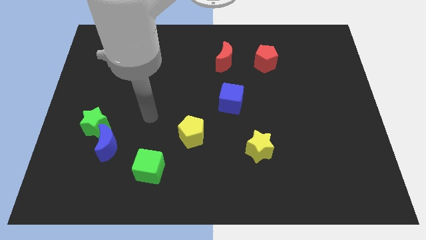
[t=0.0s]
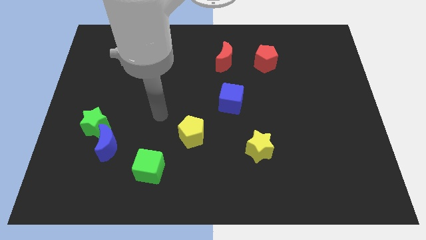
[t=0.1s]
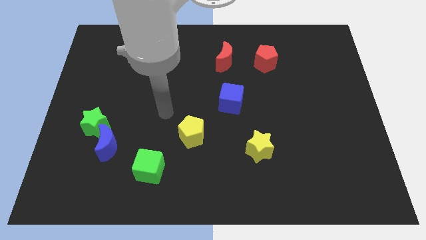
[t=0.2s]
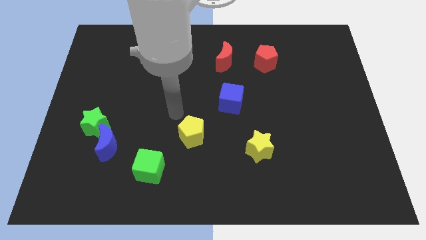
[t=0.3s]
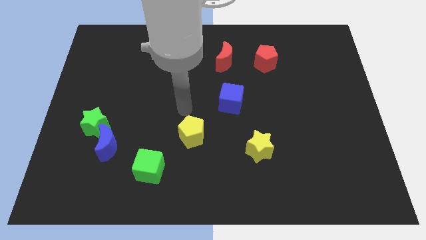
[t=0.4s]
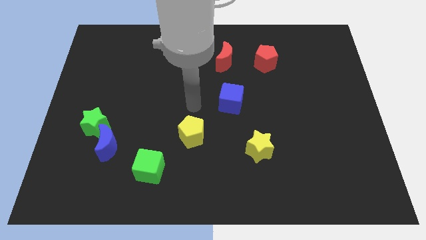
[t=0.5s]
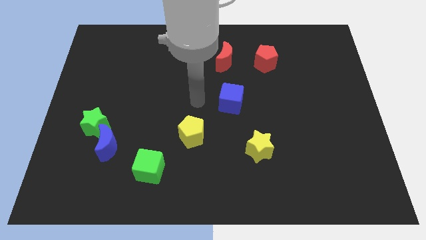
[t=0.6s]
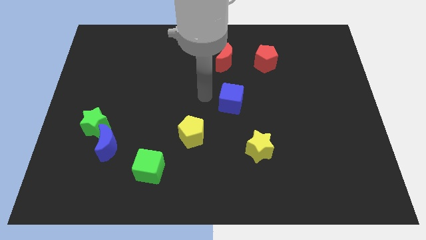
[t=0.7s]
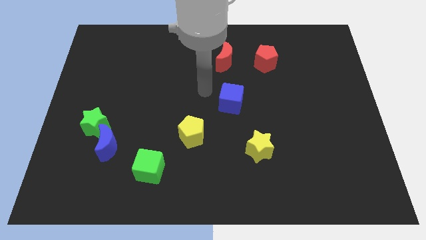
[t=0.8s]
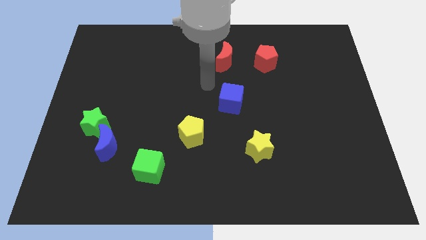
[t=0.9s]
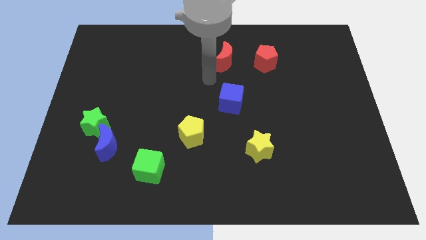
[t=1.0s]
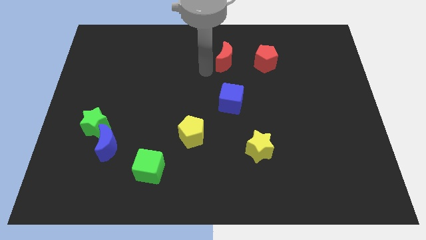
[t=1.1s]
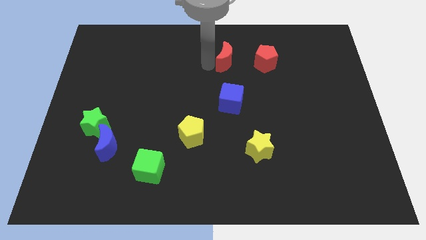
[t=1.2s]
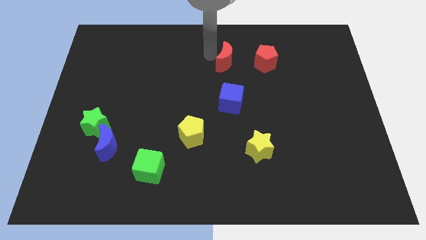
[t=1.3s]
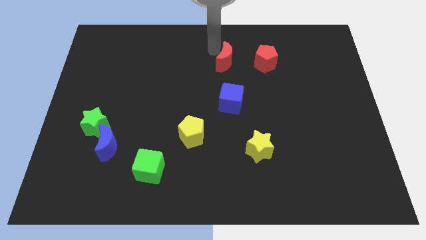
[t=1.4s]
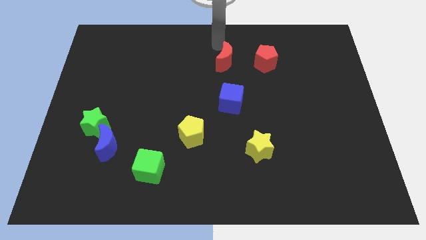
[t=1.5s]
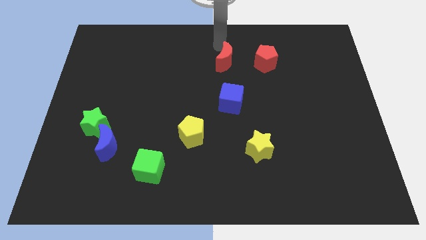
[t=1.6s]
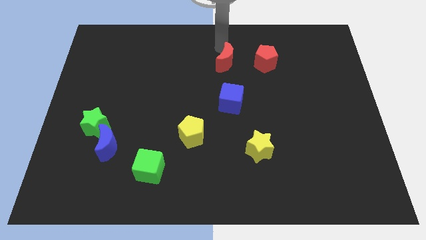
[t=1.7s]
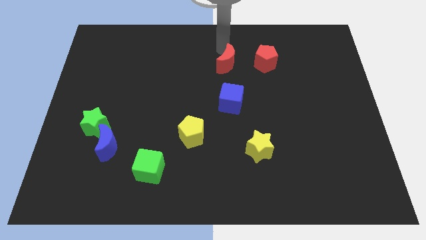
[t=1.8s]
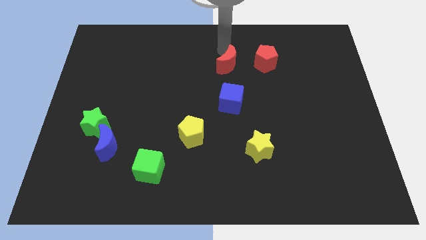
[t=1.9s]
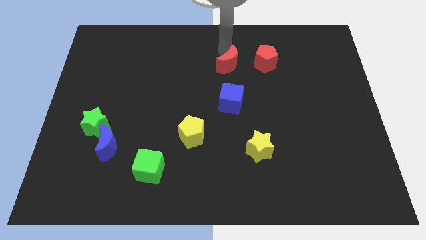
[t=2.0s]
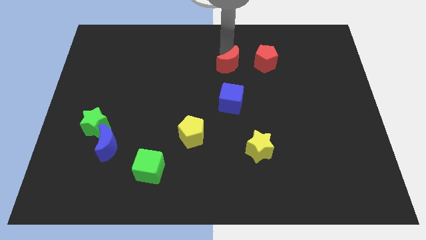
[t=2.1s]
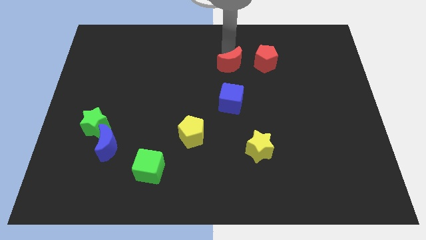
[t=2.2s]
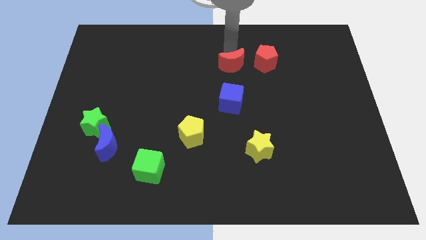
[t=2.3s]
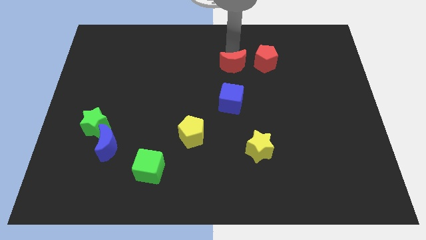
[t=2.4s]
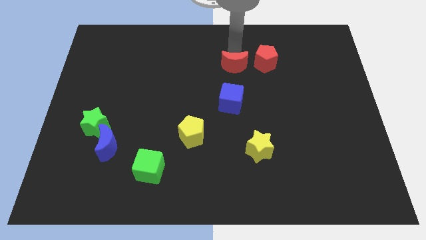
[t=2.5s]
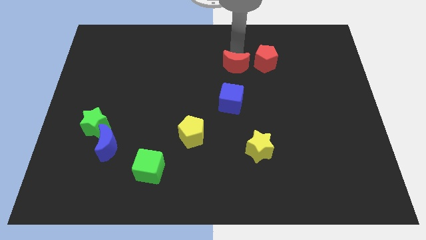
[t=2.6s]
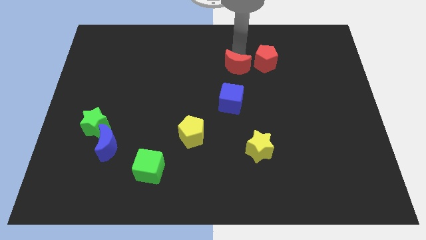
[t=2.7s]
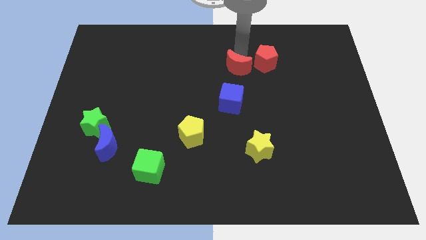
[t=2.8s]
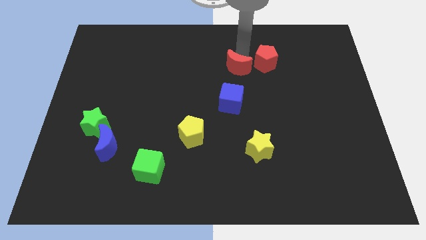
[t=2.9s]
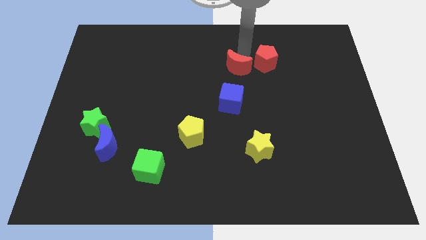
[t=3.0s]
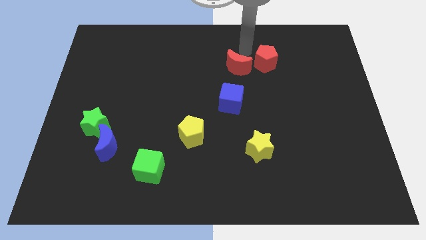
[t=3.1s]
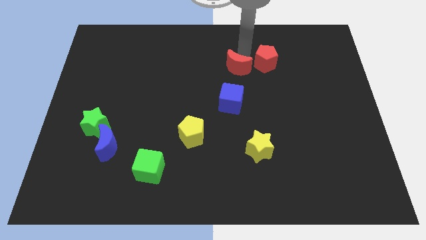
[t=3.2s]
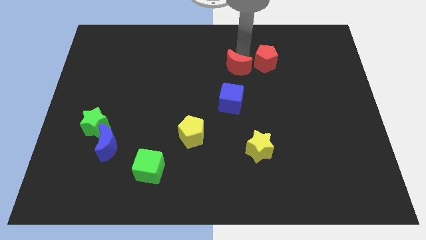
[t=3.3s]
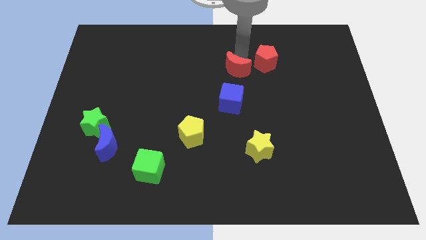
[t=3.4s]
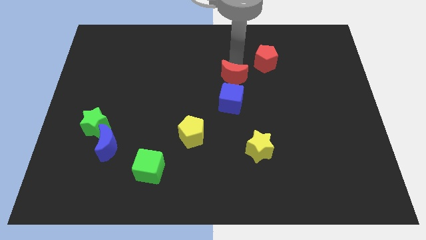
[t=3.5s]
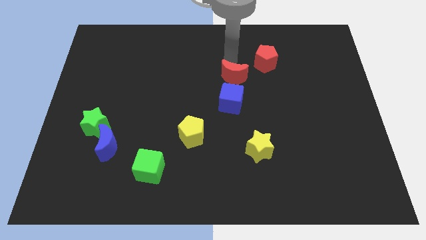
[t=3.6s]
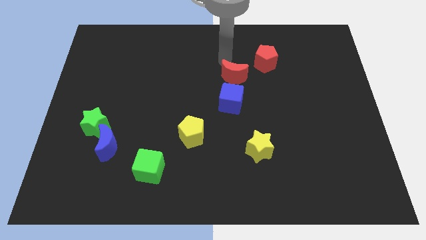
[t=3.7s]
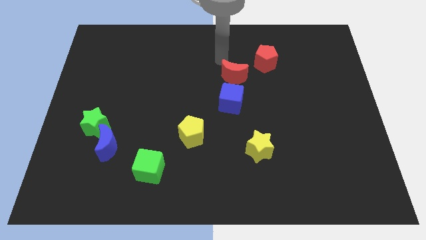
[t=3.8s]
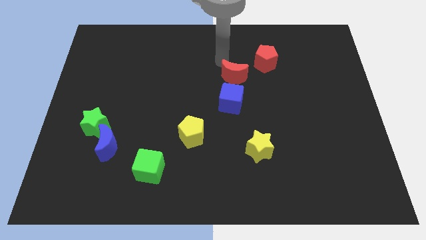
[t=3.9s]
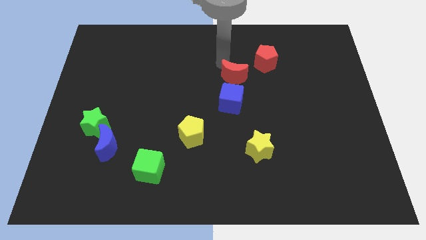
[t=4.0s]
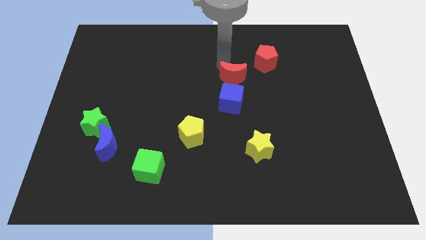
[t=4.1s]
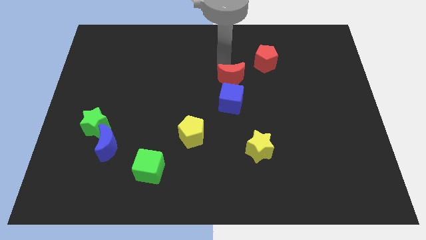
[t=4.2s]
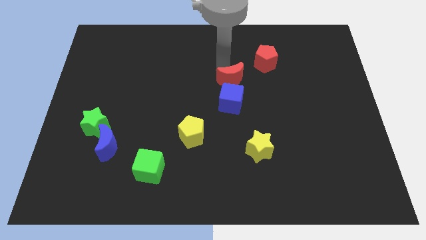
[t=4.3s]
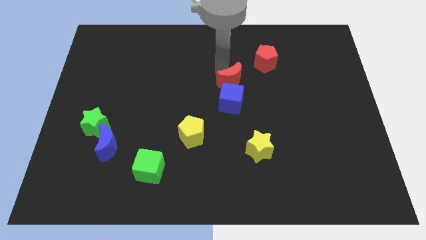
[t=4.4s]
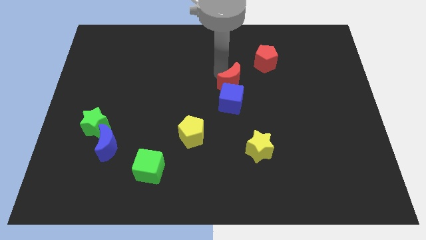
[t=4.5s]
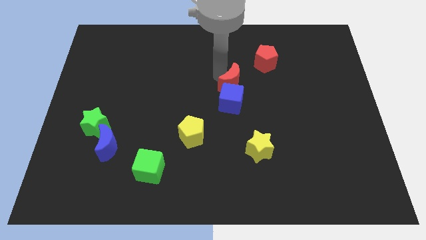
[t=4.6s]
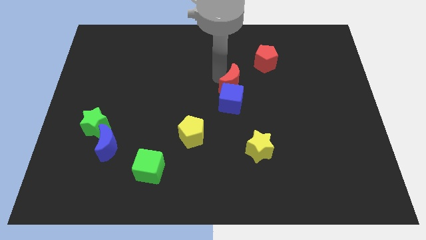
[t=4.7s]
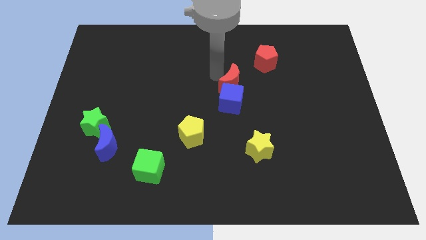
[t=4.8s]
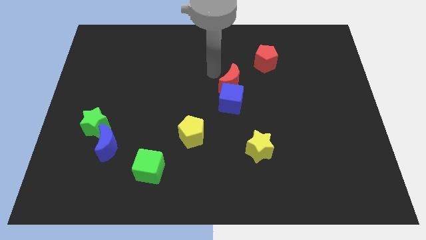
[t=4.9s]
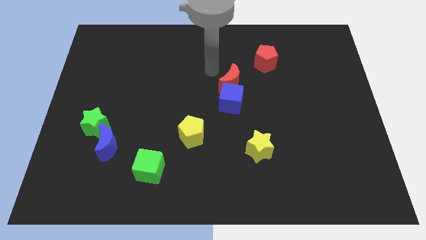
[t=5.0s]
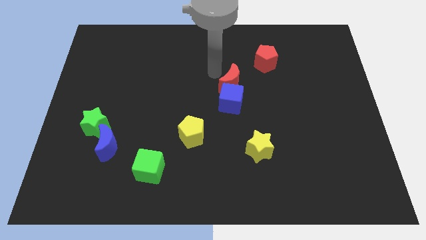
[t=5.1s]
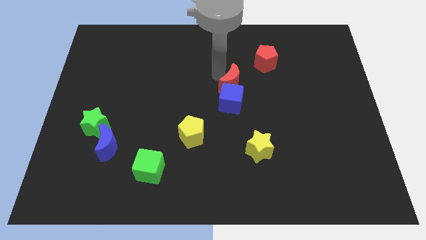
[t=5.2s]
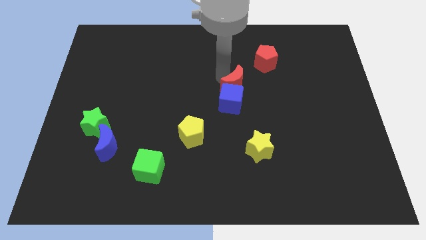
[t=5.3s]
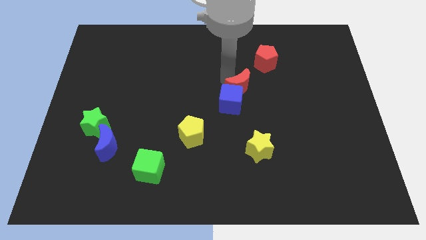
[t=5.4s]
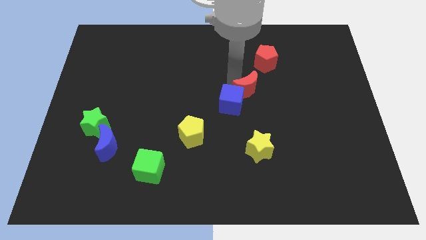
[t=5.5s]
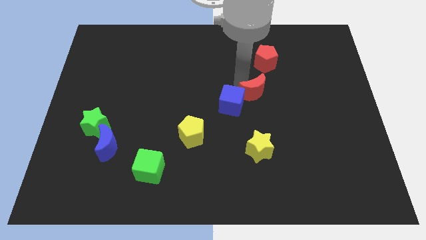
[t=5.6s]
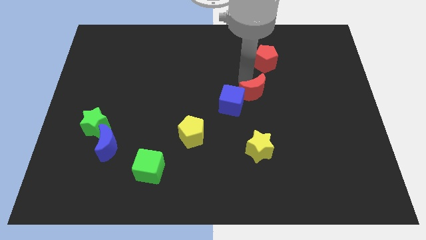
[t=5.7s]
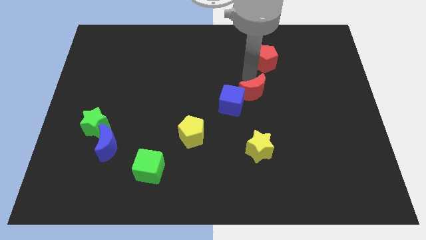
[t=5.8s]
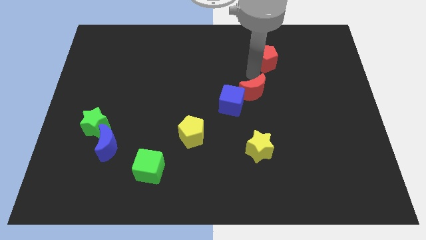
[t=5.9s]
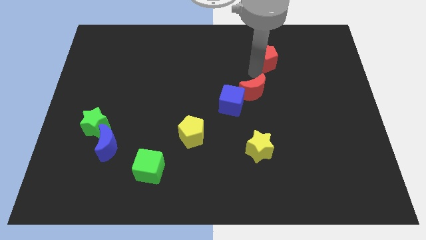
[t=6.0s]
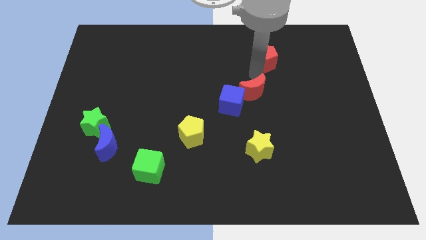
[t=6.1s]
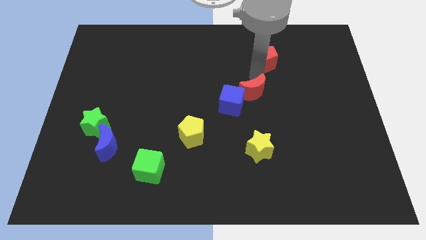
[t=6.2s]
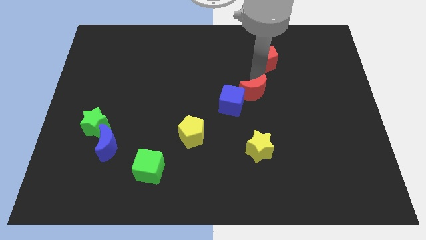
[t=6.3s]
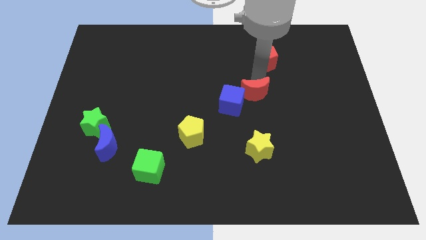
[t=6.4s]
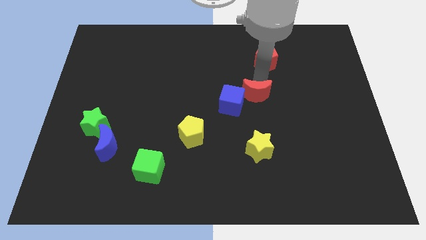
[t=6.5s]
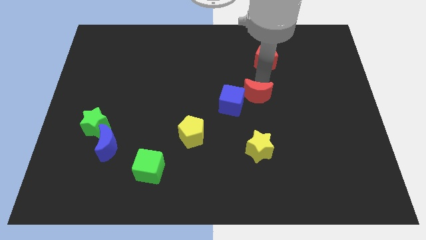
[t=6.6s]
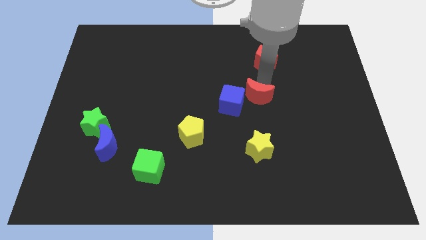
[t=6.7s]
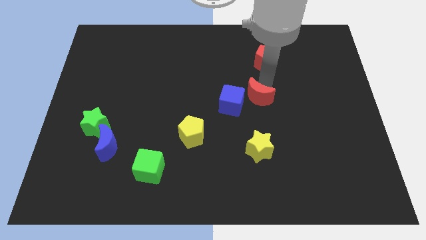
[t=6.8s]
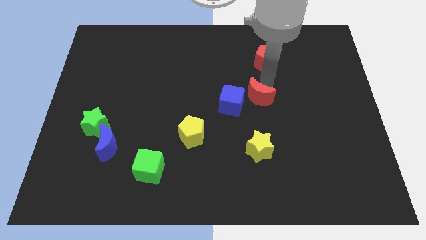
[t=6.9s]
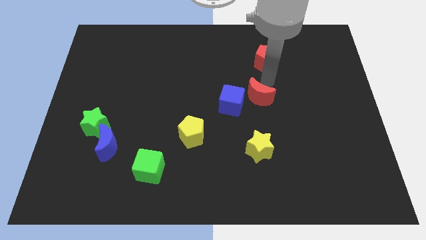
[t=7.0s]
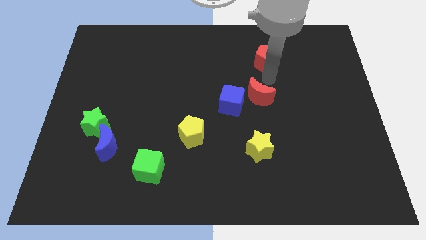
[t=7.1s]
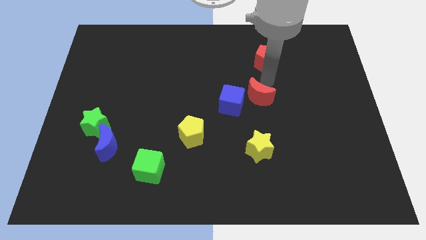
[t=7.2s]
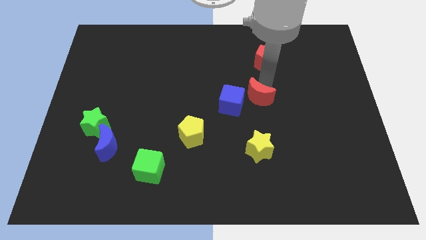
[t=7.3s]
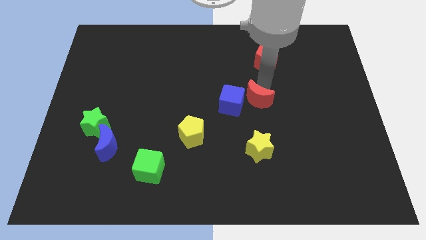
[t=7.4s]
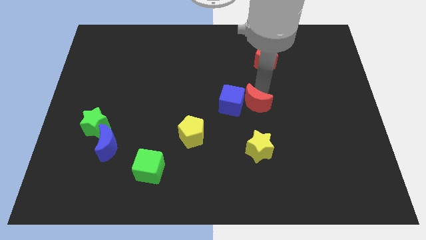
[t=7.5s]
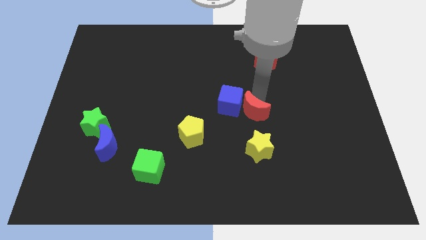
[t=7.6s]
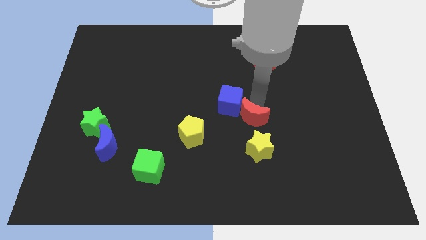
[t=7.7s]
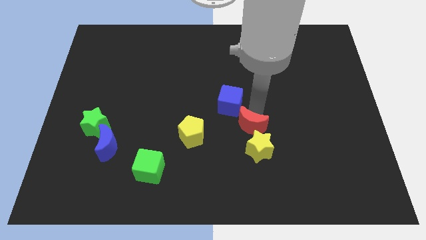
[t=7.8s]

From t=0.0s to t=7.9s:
move the red moon to the bottom side of the blue cube

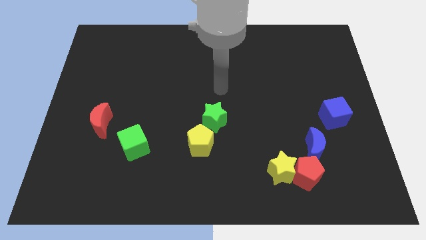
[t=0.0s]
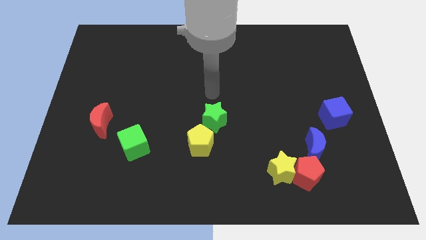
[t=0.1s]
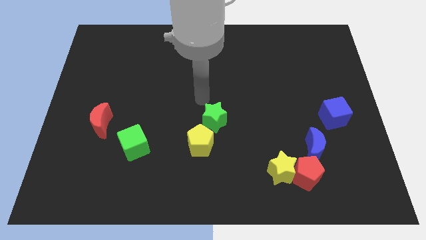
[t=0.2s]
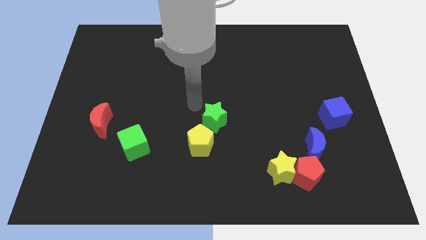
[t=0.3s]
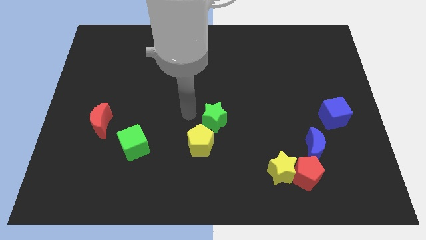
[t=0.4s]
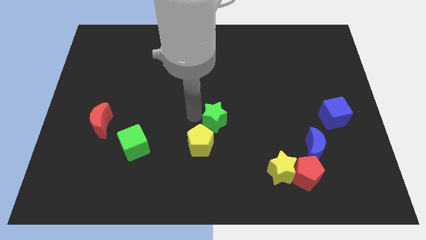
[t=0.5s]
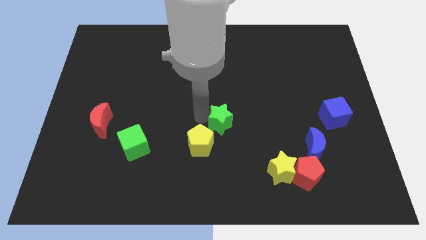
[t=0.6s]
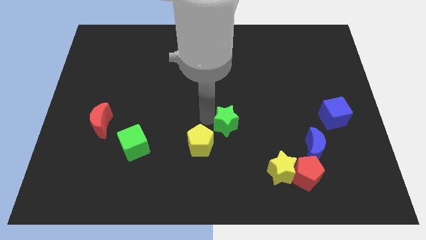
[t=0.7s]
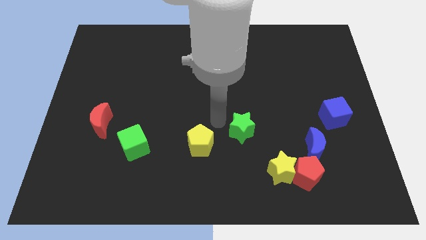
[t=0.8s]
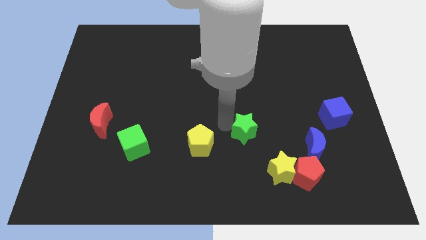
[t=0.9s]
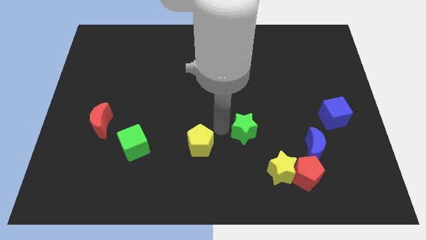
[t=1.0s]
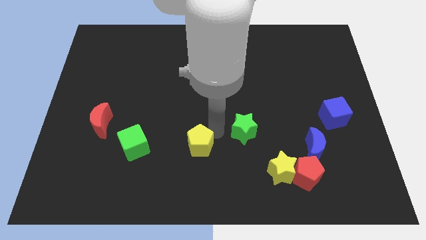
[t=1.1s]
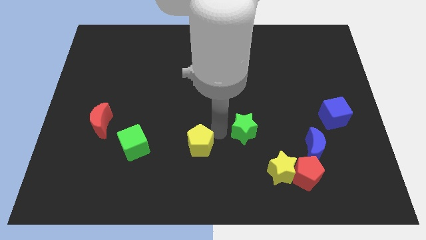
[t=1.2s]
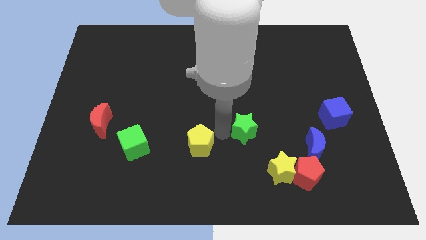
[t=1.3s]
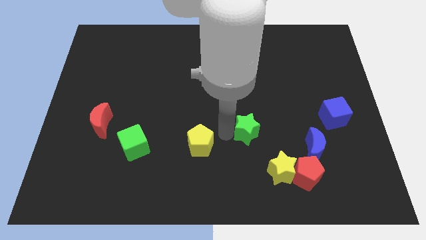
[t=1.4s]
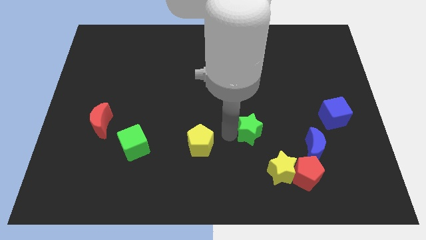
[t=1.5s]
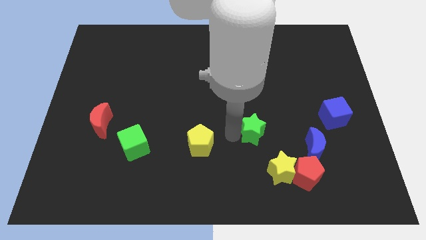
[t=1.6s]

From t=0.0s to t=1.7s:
move the green star to the top side of the yellow star
